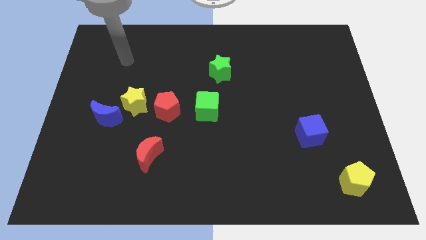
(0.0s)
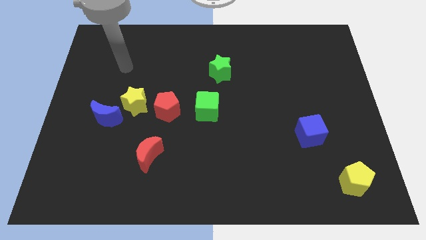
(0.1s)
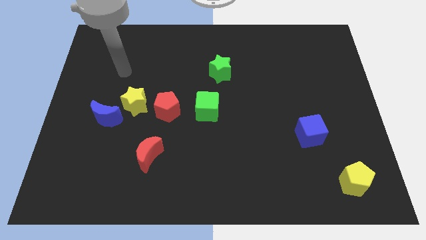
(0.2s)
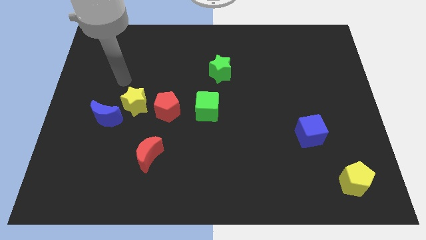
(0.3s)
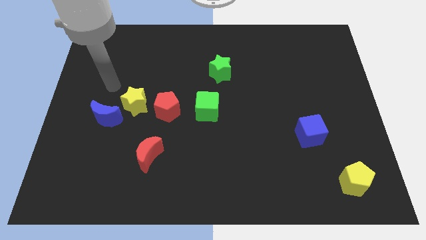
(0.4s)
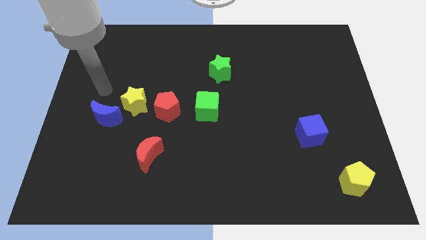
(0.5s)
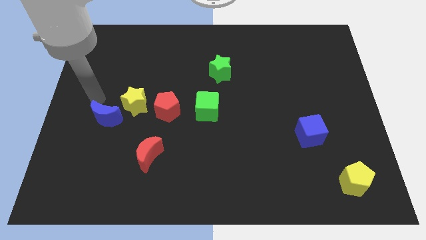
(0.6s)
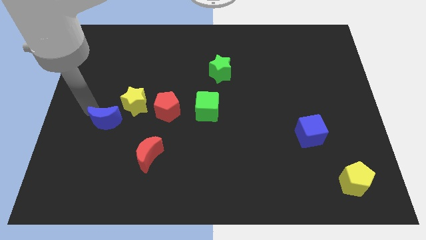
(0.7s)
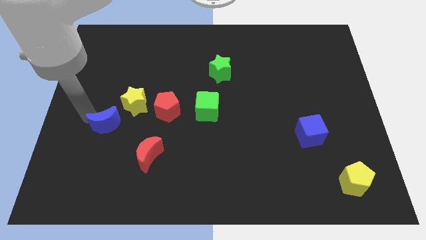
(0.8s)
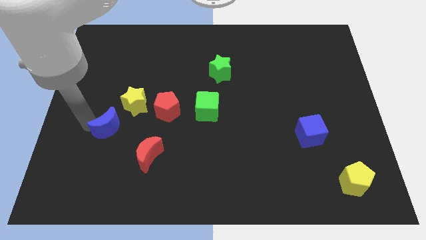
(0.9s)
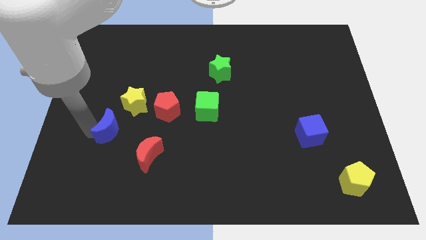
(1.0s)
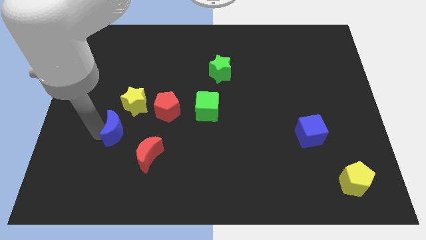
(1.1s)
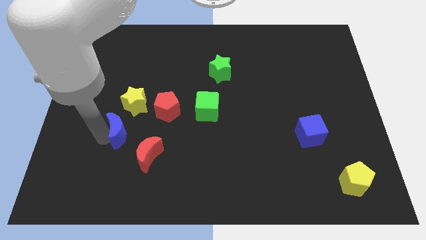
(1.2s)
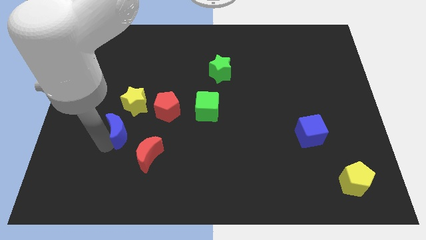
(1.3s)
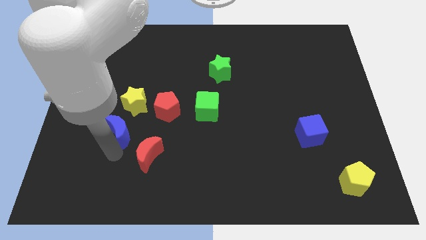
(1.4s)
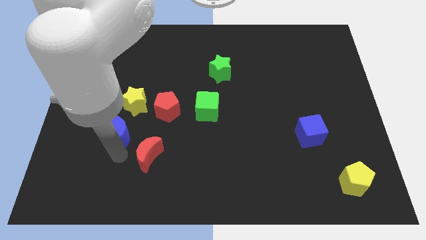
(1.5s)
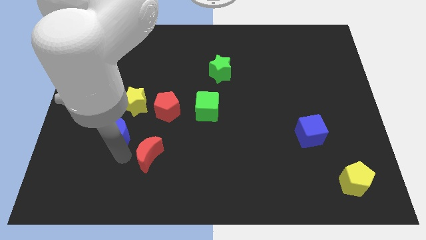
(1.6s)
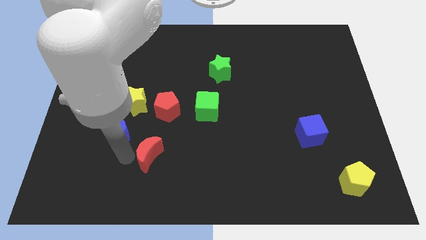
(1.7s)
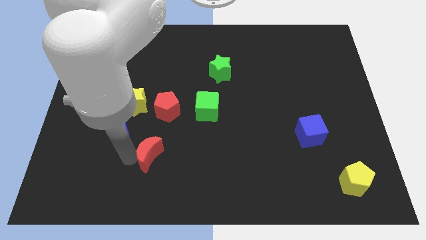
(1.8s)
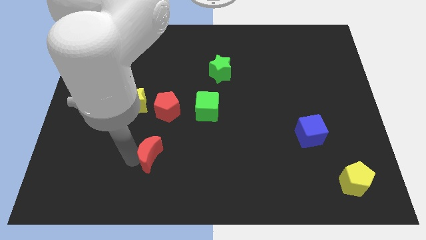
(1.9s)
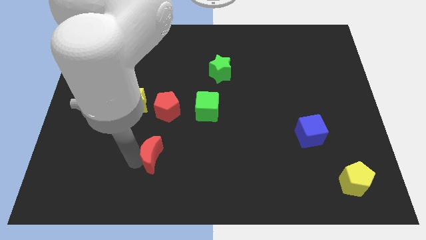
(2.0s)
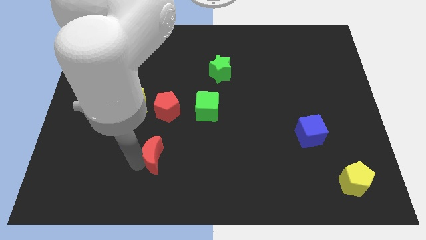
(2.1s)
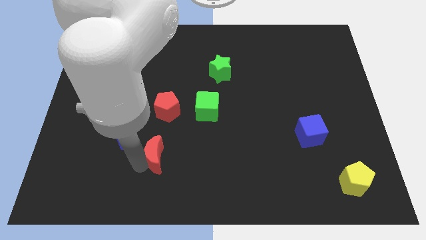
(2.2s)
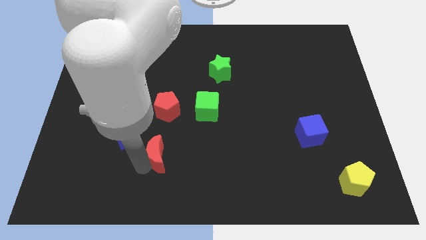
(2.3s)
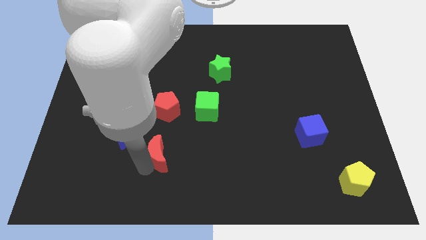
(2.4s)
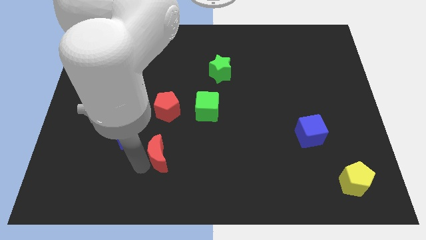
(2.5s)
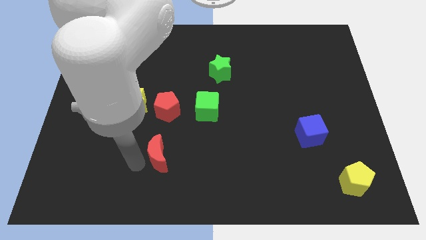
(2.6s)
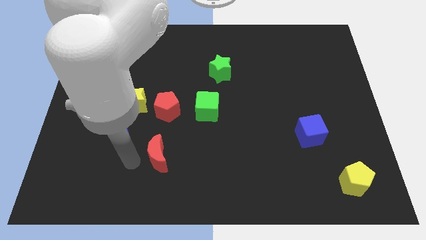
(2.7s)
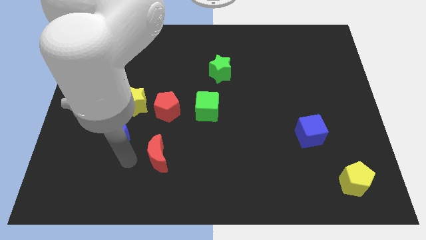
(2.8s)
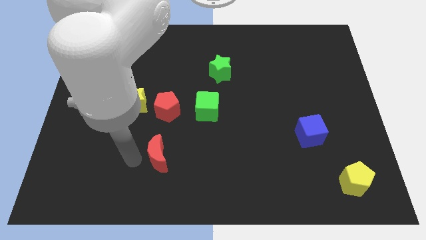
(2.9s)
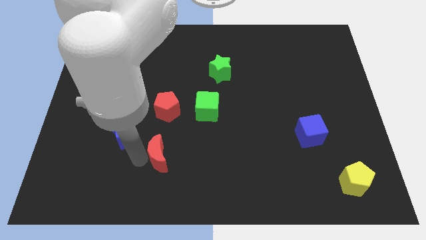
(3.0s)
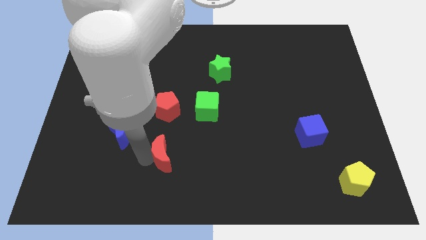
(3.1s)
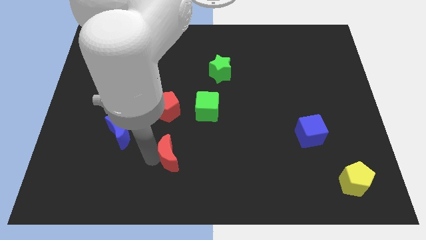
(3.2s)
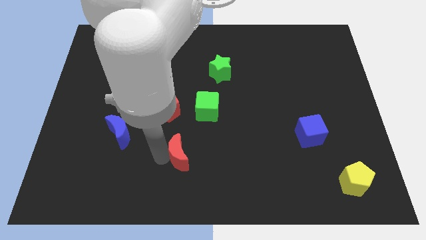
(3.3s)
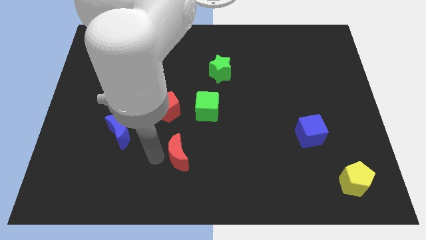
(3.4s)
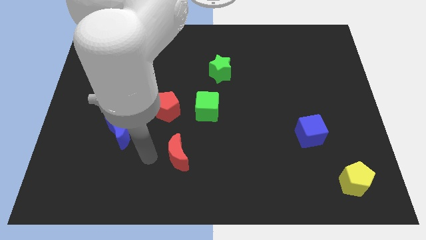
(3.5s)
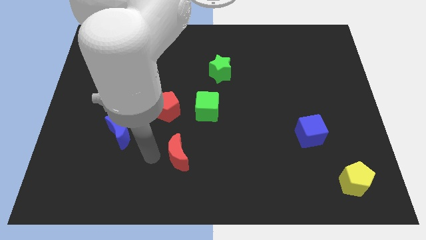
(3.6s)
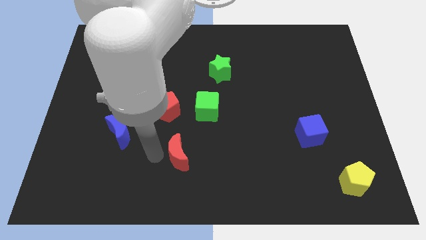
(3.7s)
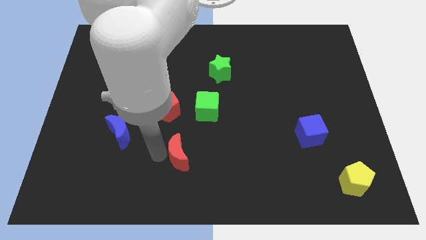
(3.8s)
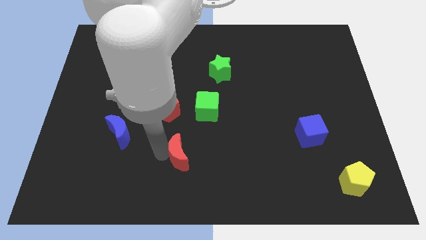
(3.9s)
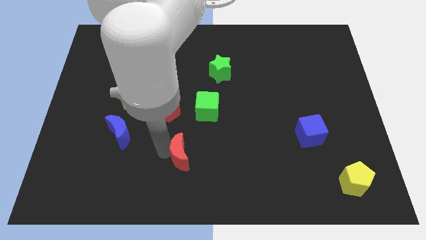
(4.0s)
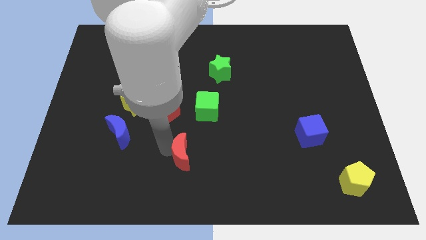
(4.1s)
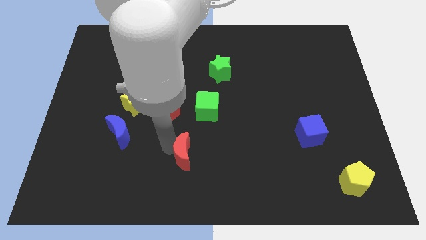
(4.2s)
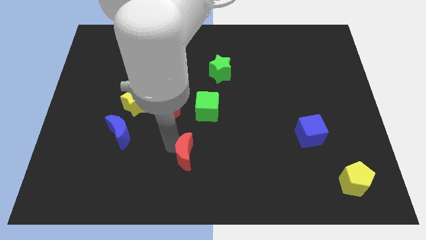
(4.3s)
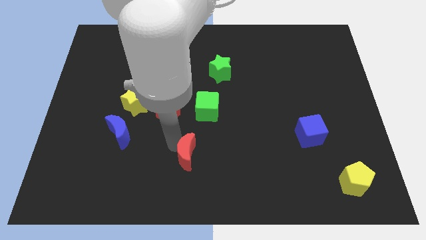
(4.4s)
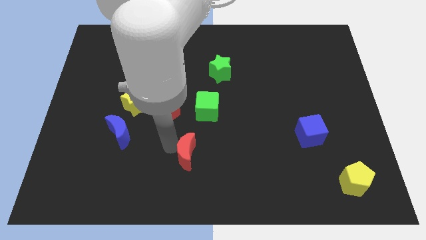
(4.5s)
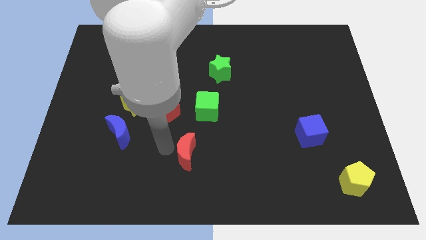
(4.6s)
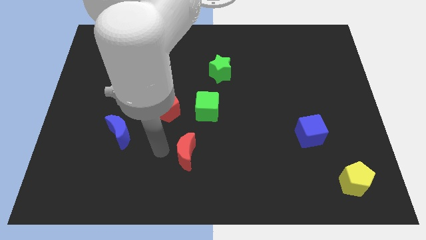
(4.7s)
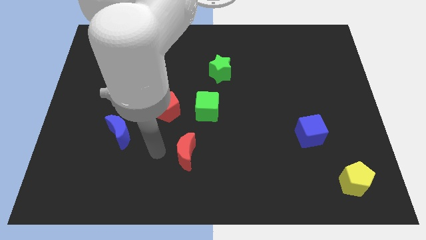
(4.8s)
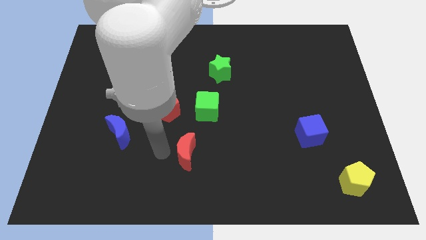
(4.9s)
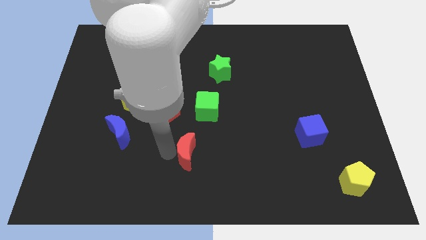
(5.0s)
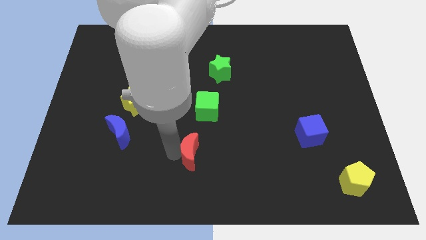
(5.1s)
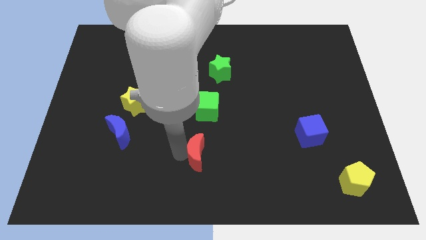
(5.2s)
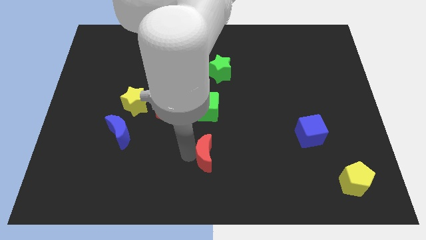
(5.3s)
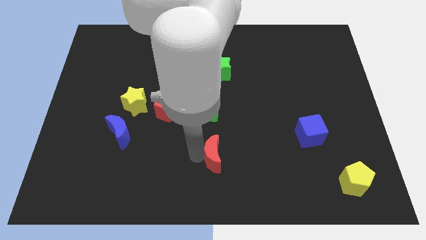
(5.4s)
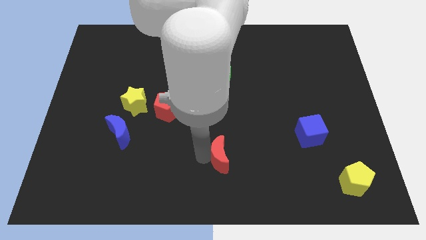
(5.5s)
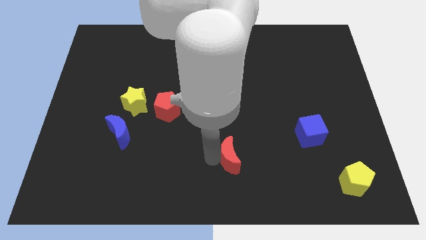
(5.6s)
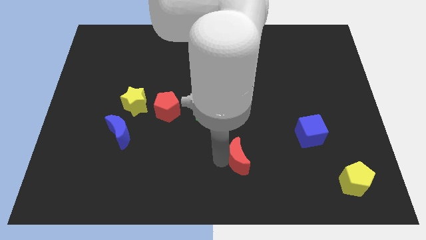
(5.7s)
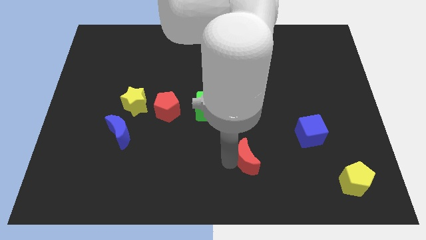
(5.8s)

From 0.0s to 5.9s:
push the red moon to the right

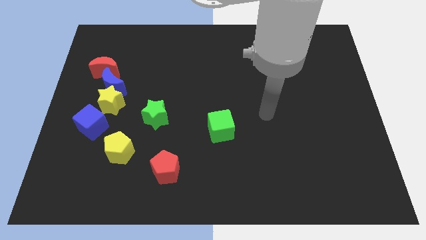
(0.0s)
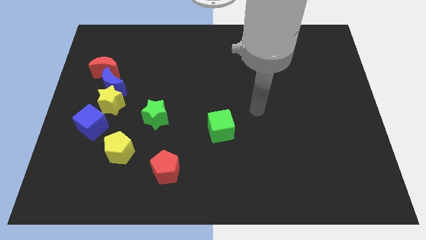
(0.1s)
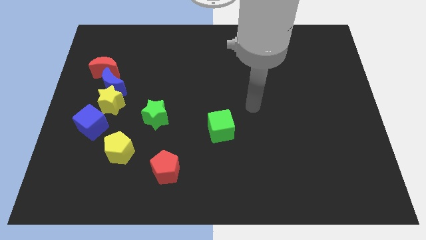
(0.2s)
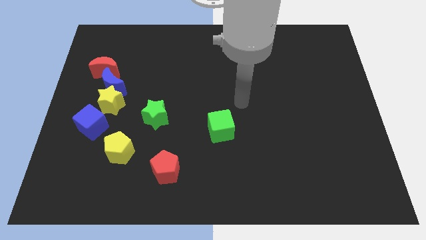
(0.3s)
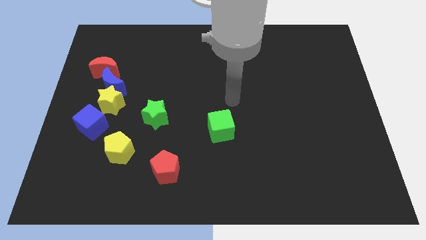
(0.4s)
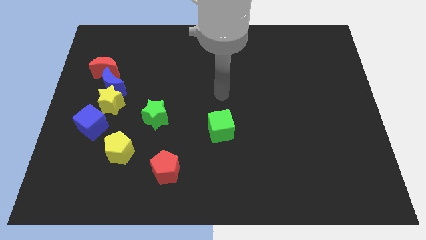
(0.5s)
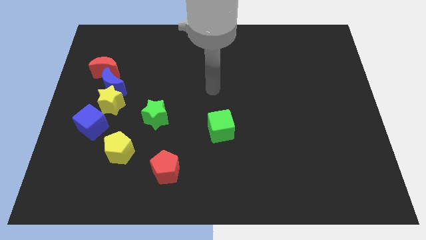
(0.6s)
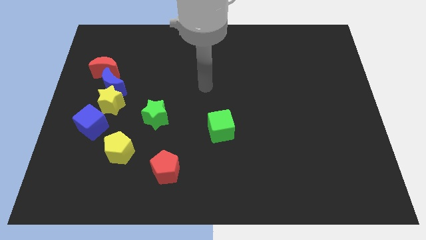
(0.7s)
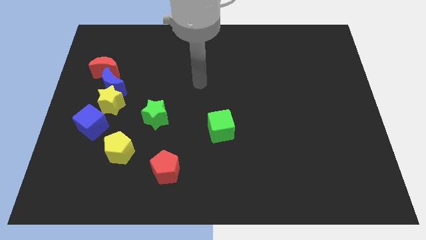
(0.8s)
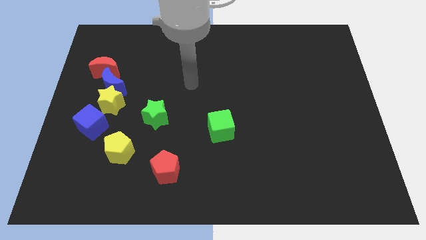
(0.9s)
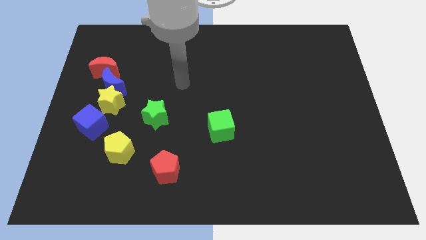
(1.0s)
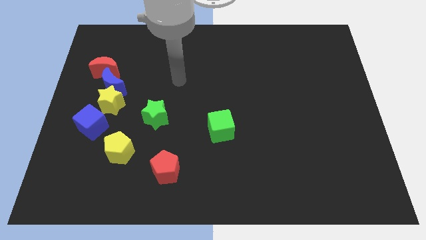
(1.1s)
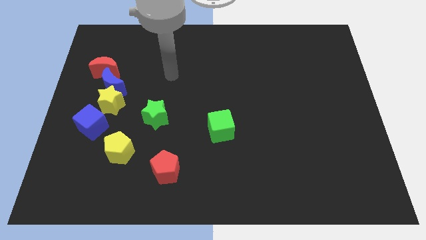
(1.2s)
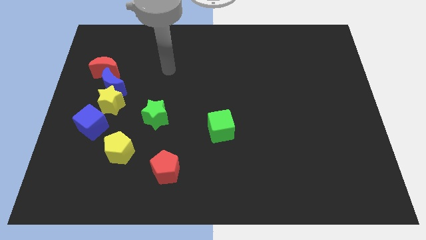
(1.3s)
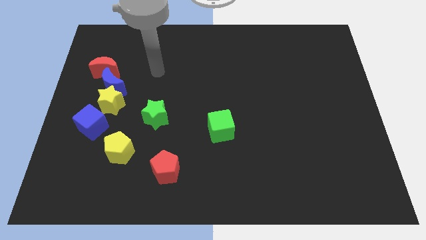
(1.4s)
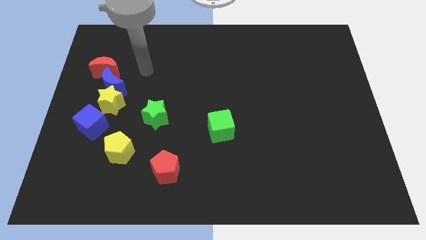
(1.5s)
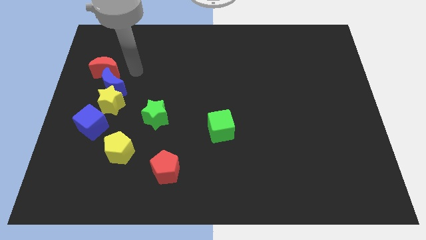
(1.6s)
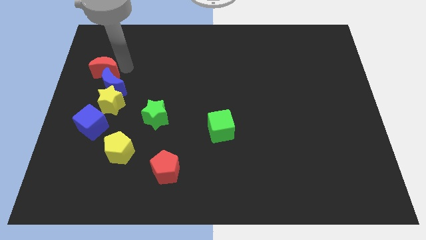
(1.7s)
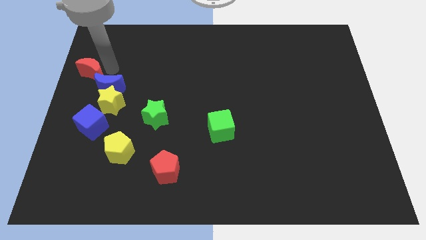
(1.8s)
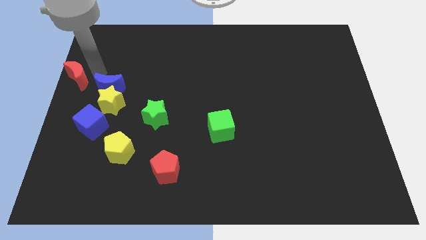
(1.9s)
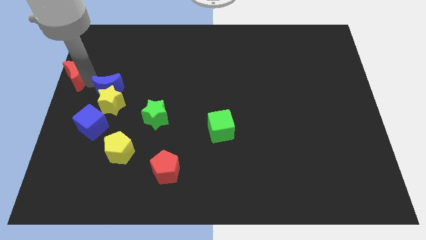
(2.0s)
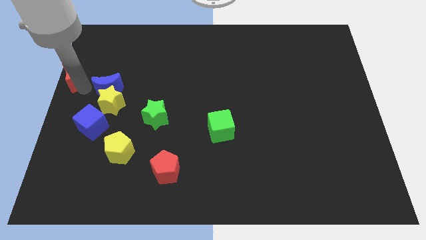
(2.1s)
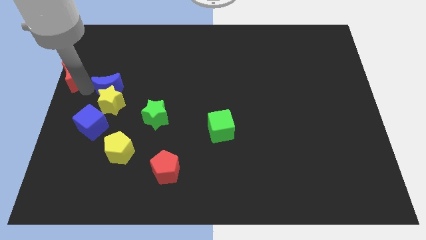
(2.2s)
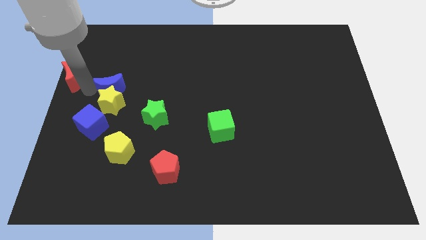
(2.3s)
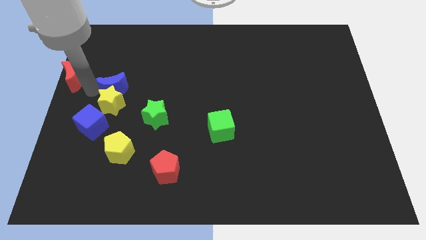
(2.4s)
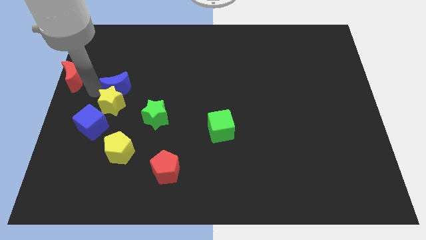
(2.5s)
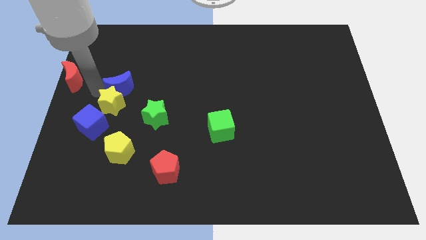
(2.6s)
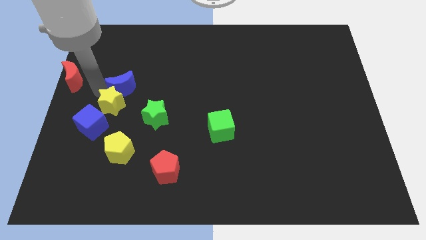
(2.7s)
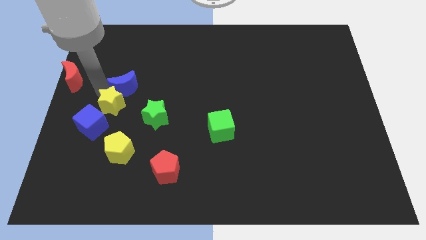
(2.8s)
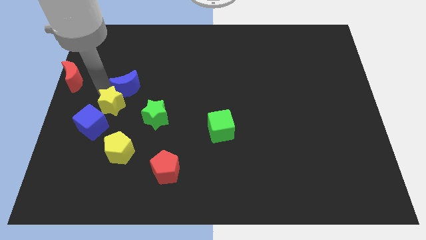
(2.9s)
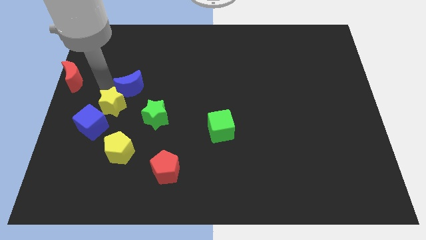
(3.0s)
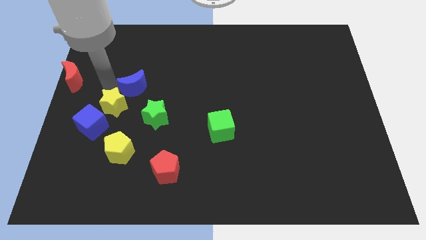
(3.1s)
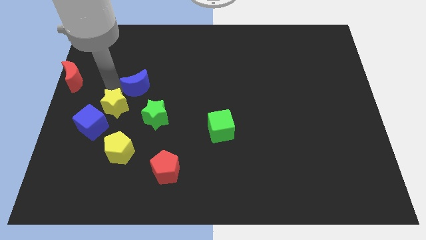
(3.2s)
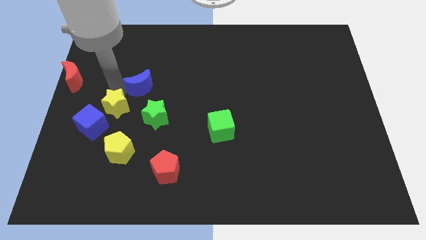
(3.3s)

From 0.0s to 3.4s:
push the blue moon somewhat to the right
